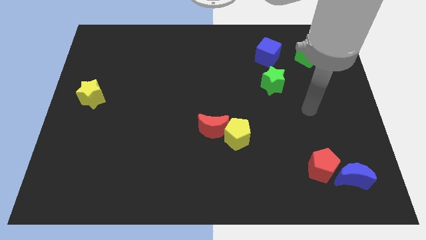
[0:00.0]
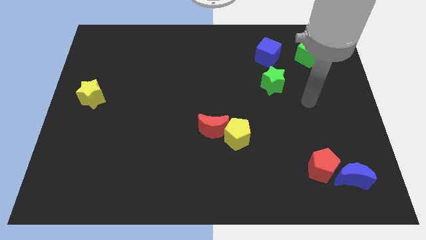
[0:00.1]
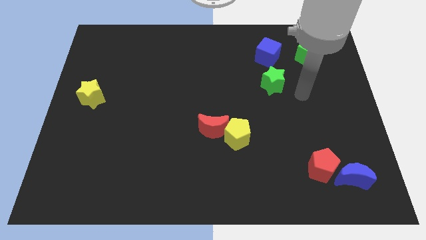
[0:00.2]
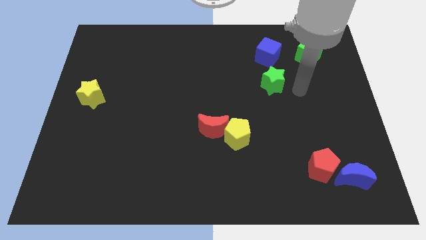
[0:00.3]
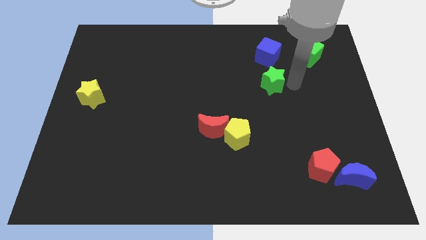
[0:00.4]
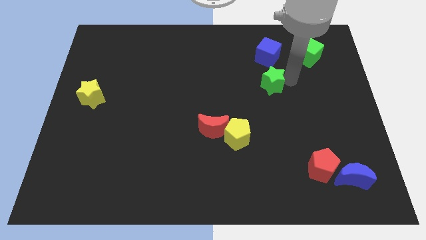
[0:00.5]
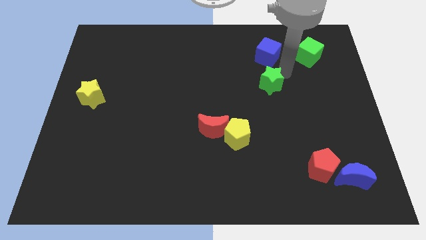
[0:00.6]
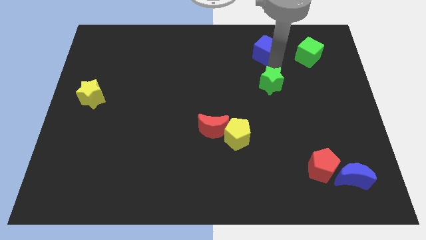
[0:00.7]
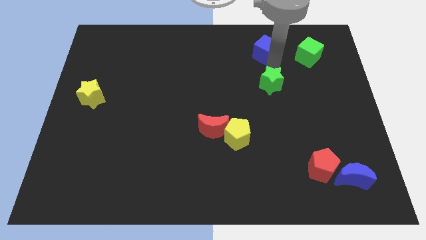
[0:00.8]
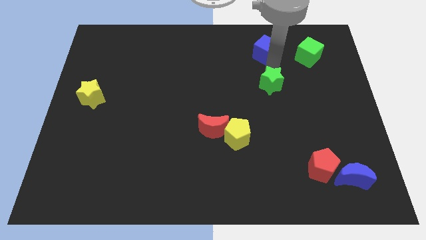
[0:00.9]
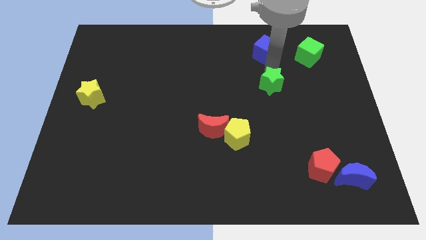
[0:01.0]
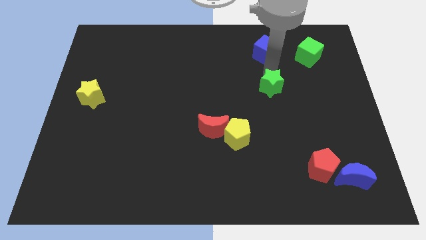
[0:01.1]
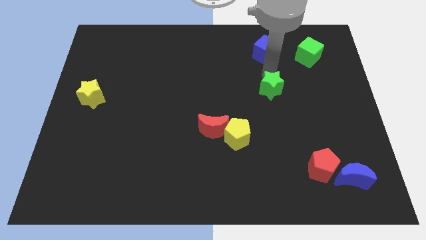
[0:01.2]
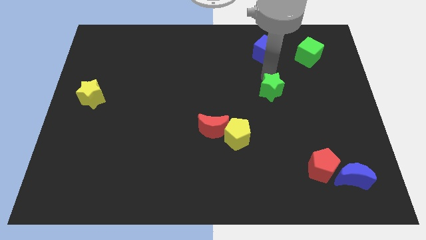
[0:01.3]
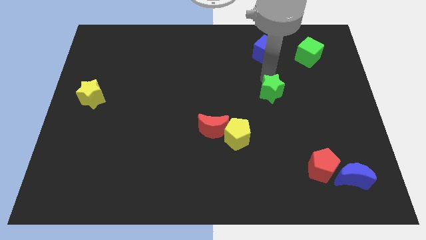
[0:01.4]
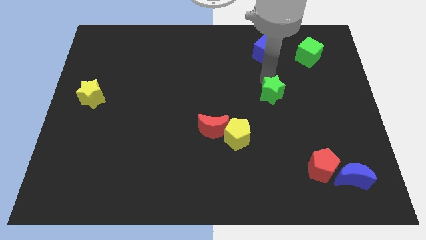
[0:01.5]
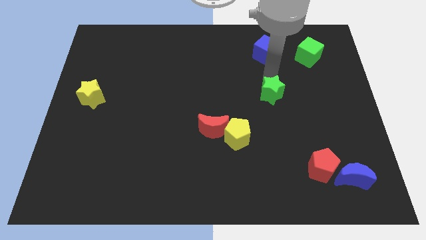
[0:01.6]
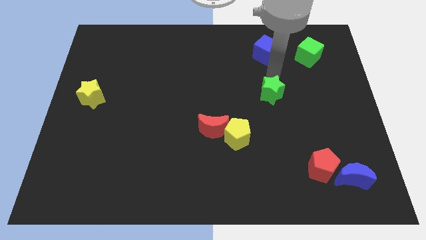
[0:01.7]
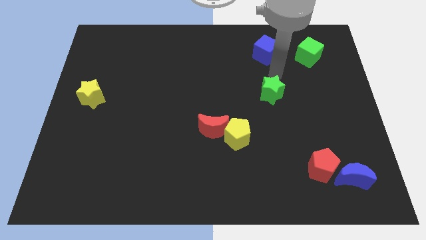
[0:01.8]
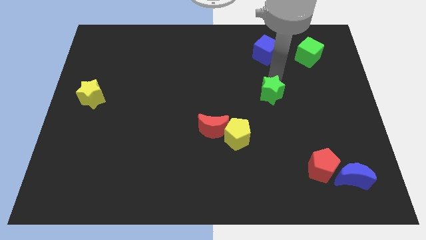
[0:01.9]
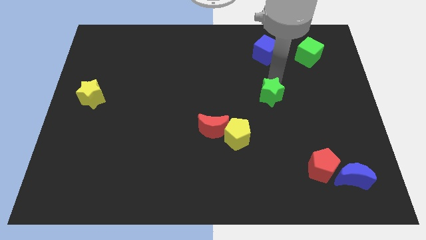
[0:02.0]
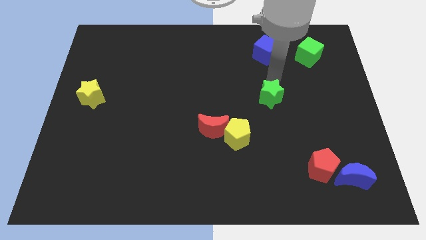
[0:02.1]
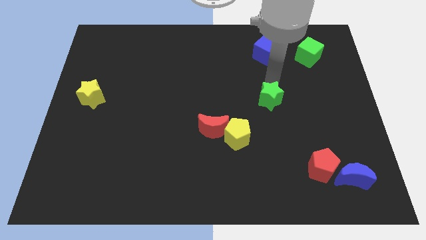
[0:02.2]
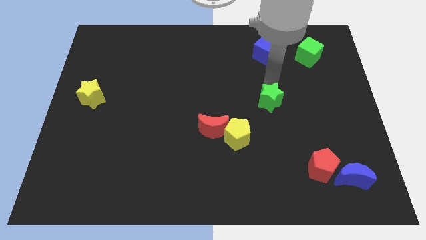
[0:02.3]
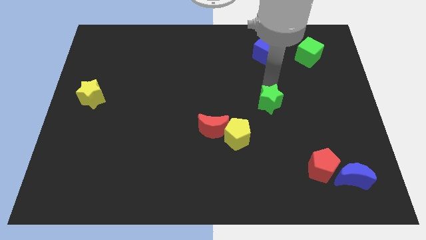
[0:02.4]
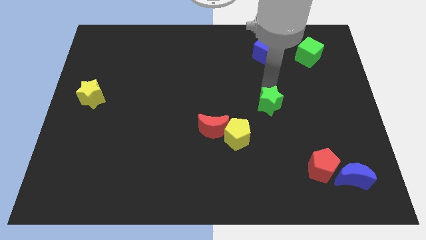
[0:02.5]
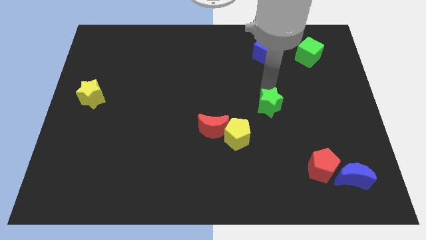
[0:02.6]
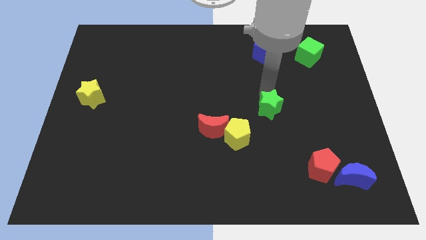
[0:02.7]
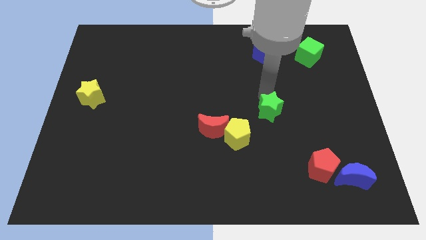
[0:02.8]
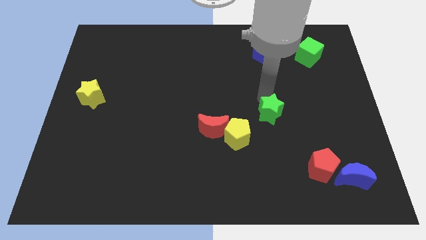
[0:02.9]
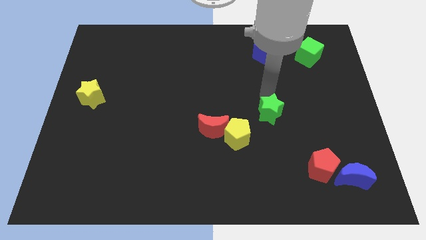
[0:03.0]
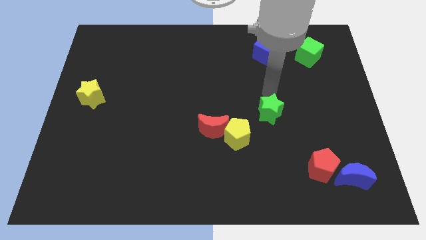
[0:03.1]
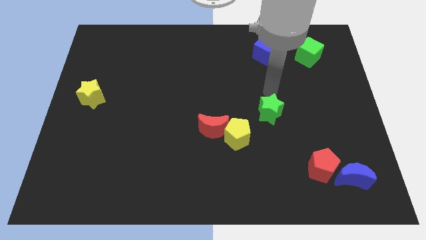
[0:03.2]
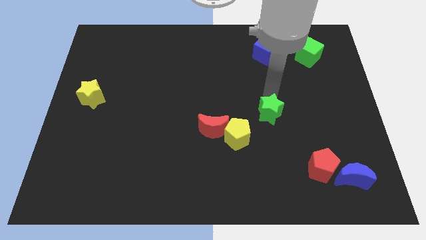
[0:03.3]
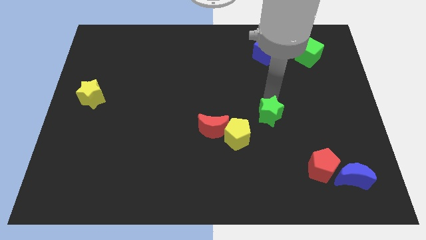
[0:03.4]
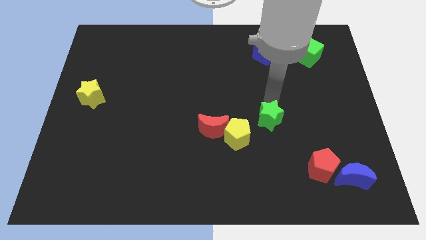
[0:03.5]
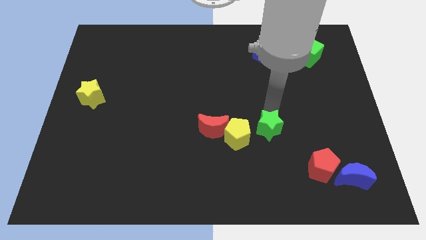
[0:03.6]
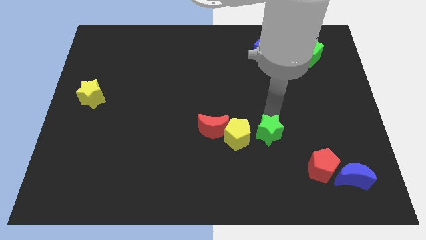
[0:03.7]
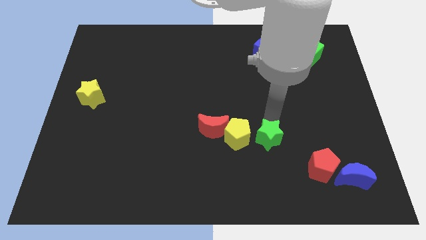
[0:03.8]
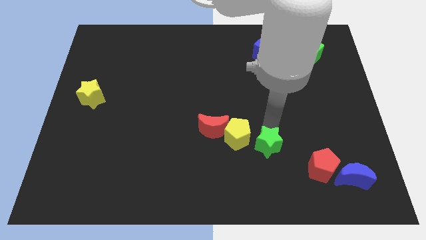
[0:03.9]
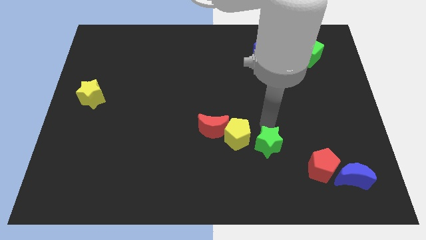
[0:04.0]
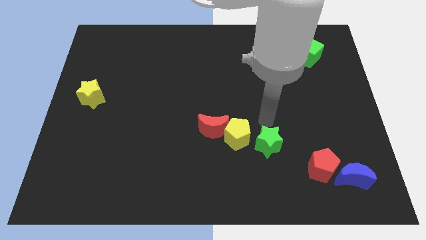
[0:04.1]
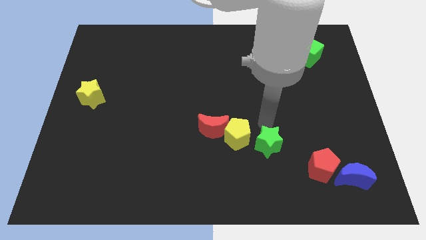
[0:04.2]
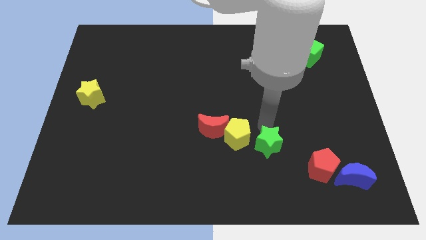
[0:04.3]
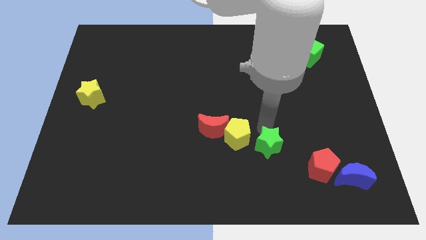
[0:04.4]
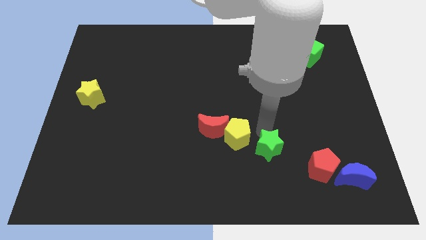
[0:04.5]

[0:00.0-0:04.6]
put the green star left of the red pentagon

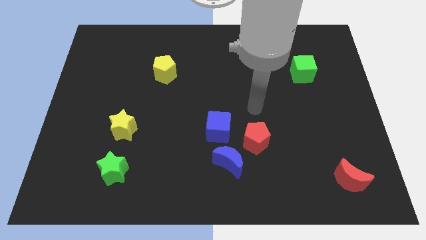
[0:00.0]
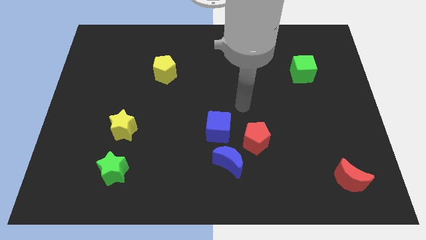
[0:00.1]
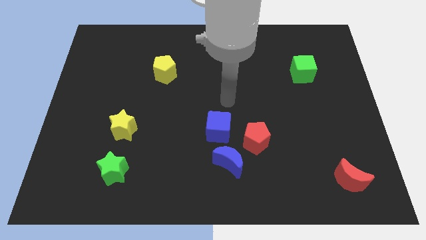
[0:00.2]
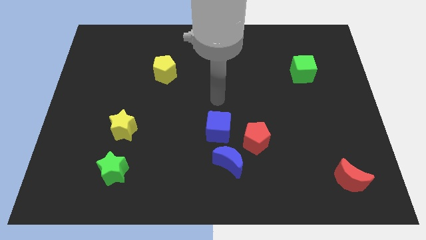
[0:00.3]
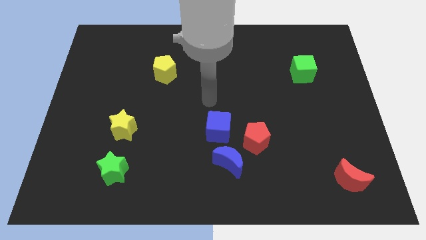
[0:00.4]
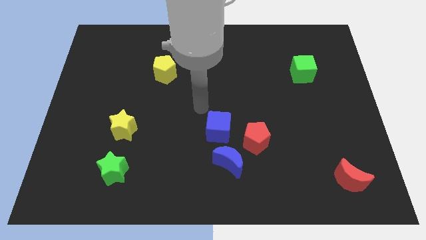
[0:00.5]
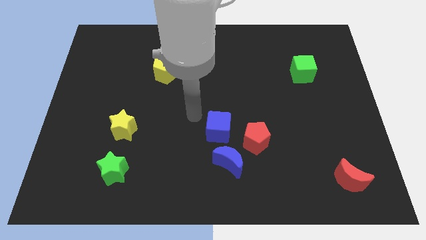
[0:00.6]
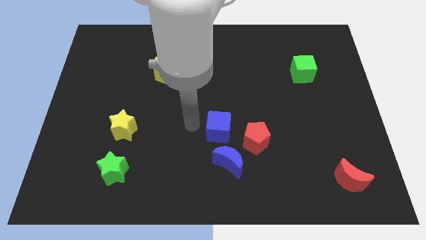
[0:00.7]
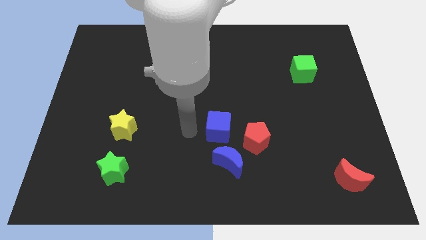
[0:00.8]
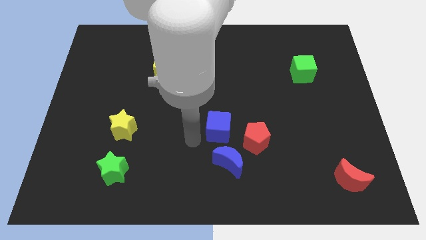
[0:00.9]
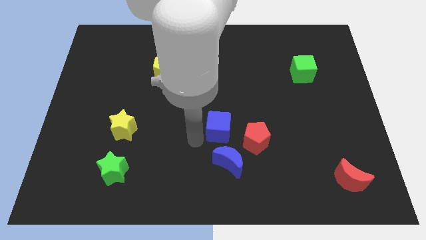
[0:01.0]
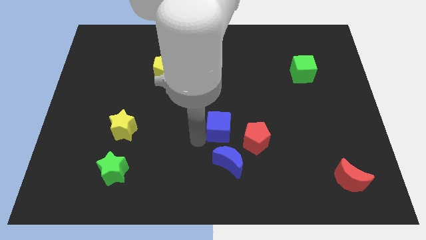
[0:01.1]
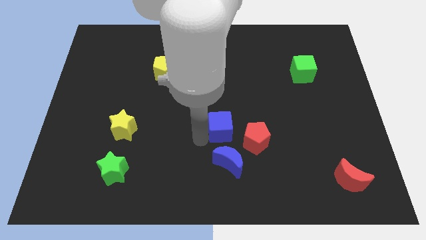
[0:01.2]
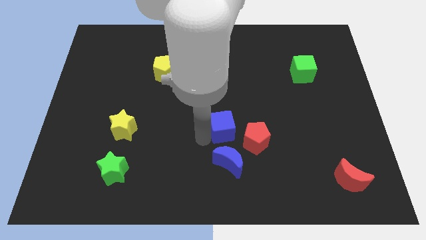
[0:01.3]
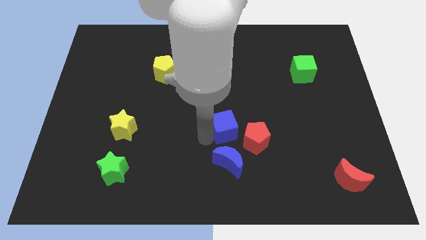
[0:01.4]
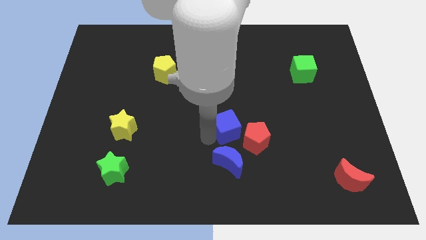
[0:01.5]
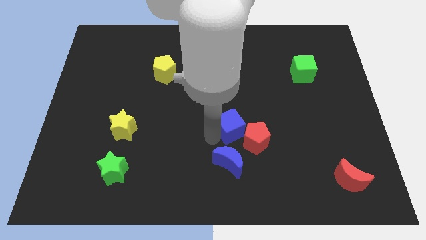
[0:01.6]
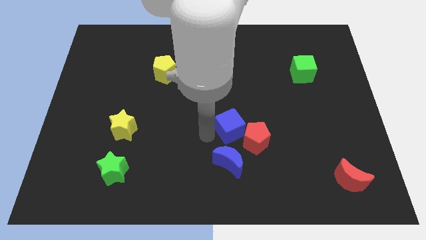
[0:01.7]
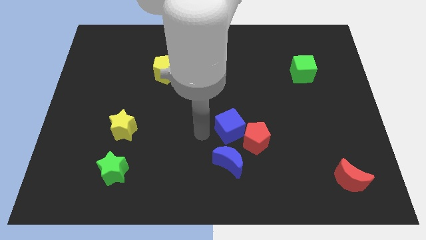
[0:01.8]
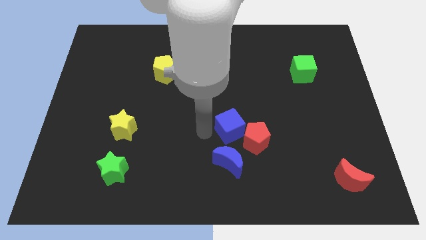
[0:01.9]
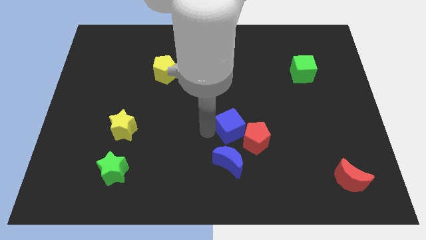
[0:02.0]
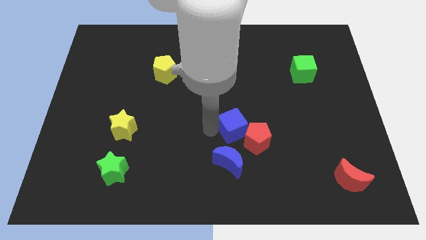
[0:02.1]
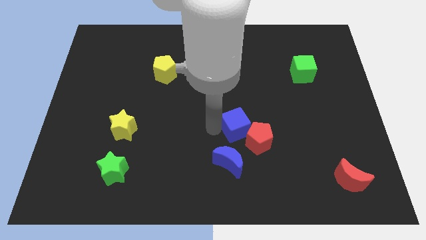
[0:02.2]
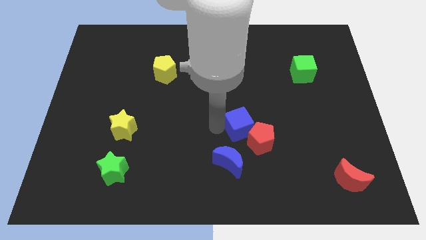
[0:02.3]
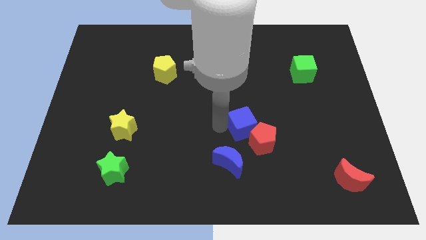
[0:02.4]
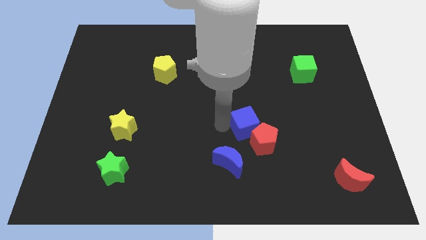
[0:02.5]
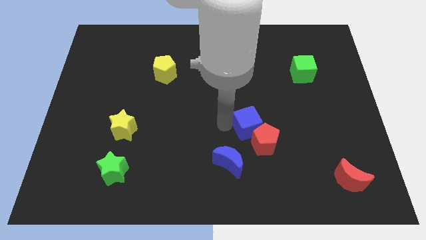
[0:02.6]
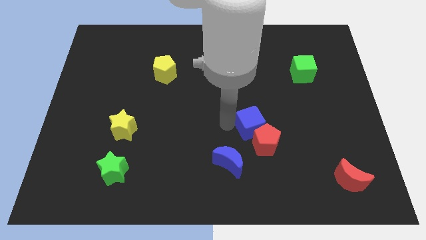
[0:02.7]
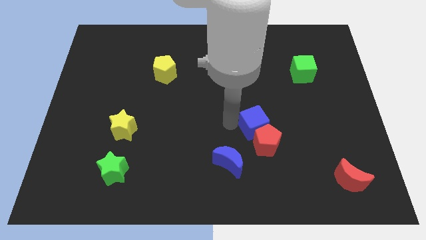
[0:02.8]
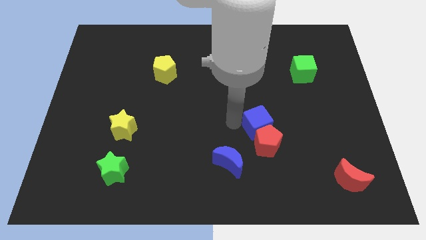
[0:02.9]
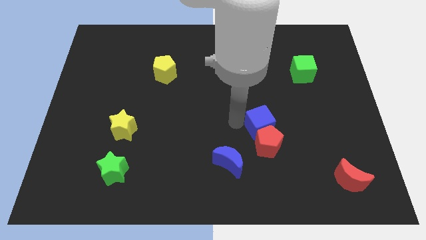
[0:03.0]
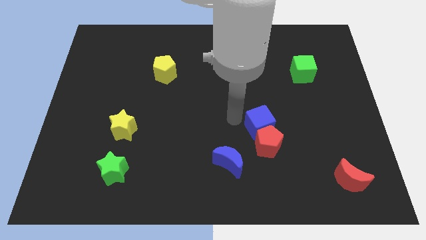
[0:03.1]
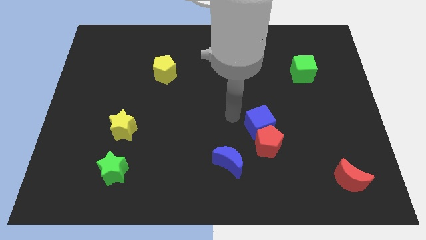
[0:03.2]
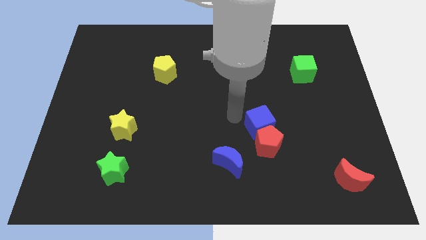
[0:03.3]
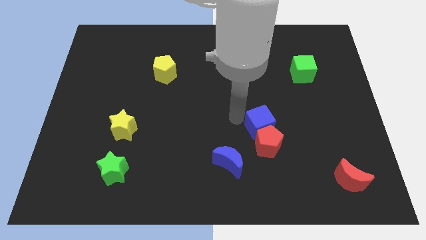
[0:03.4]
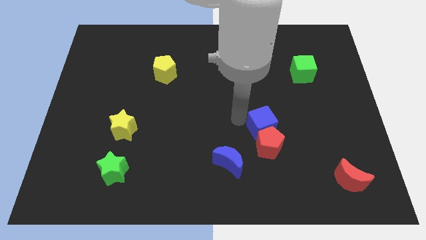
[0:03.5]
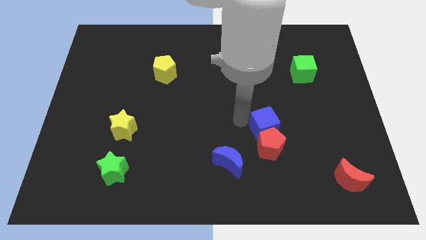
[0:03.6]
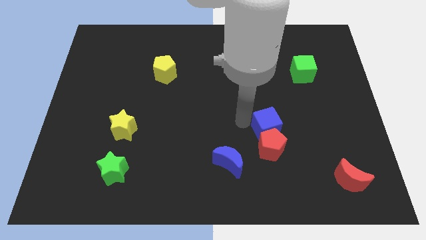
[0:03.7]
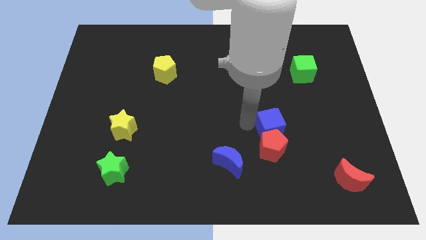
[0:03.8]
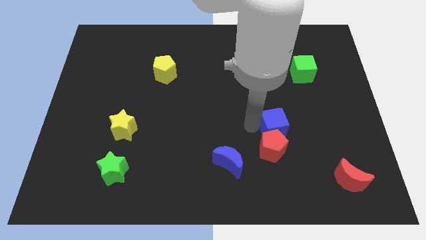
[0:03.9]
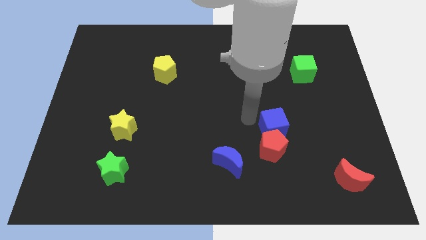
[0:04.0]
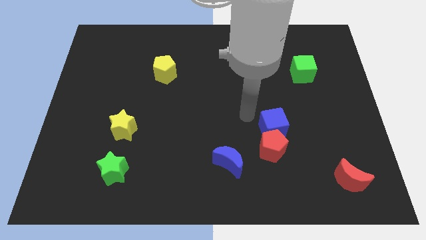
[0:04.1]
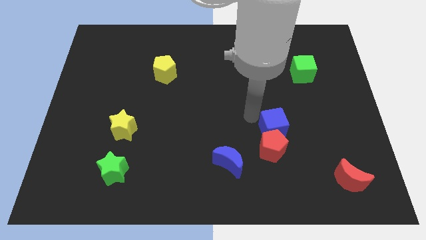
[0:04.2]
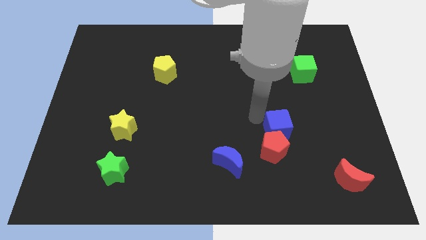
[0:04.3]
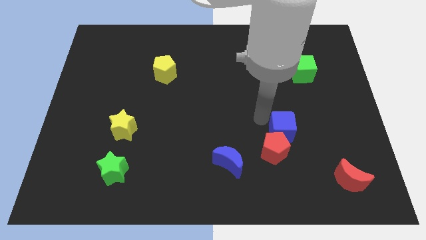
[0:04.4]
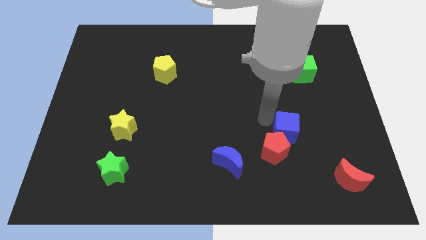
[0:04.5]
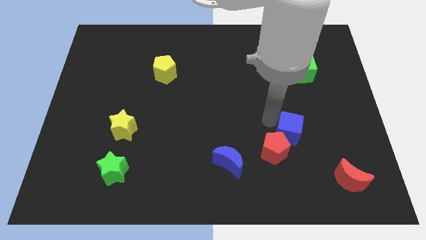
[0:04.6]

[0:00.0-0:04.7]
slide the blue cube just right of the red pentagon
